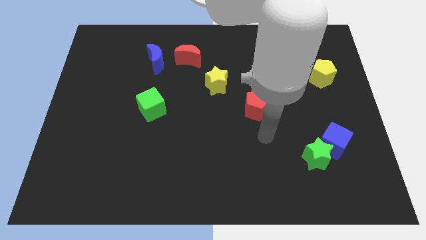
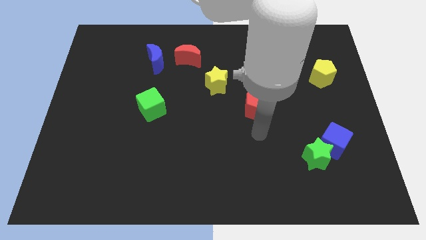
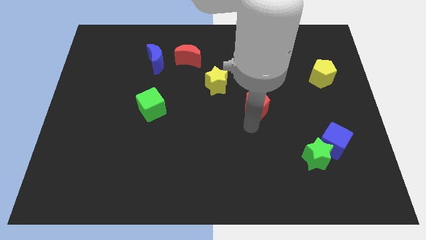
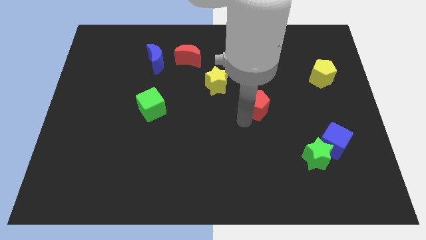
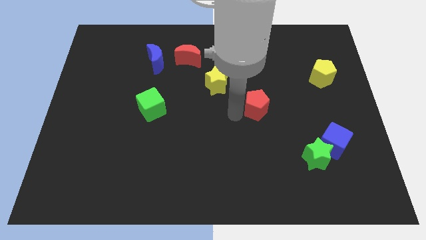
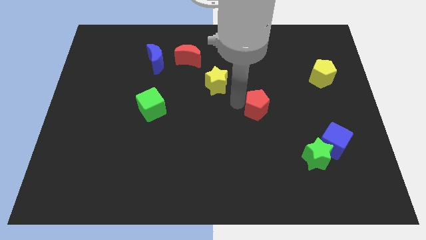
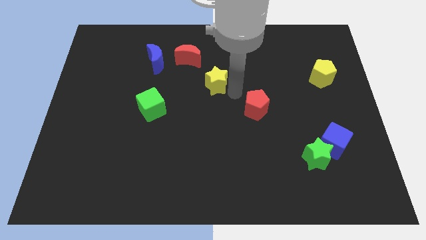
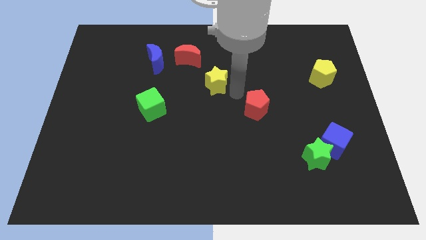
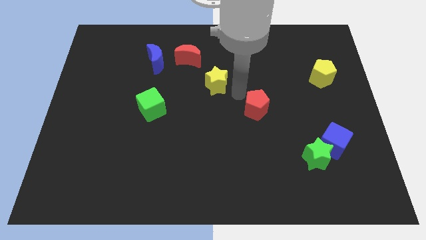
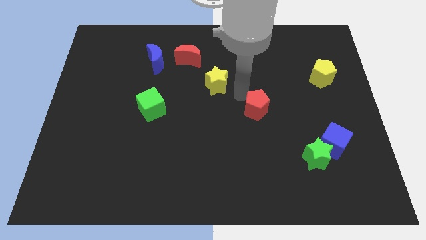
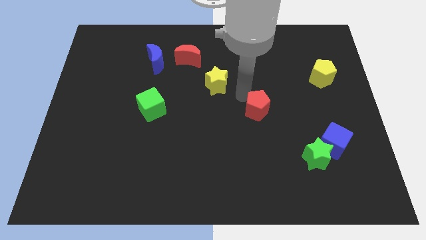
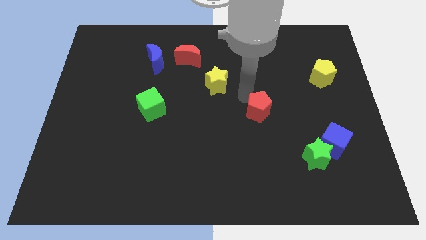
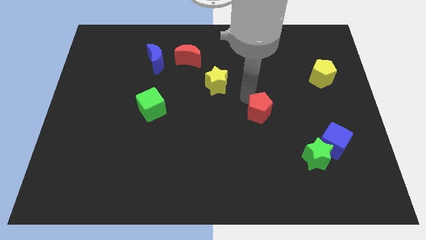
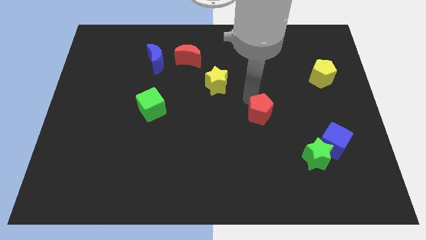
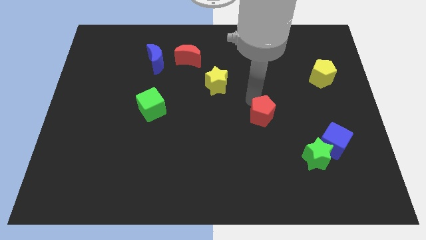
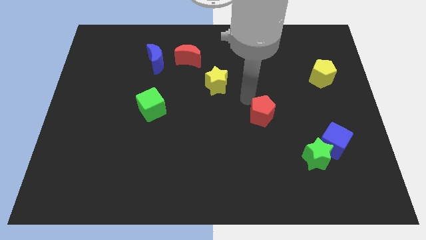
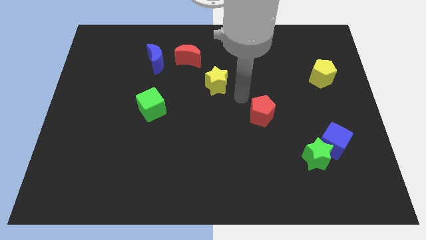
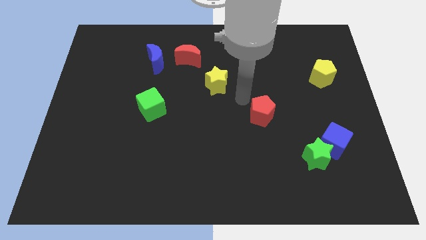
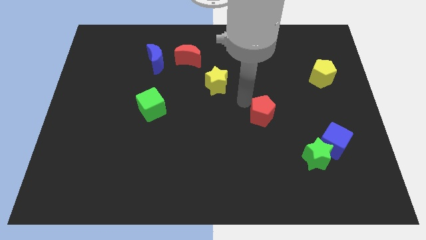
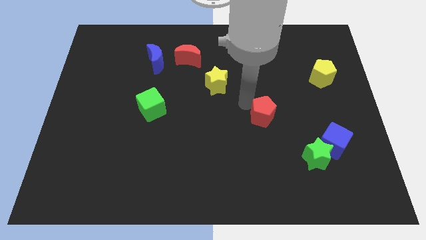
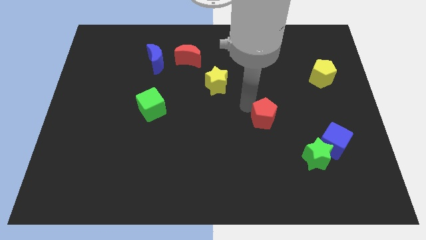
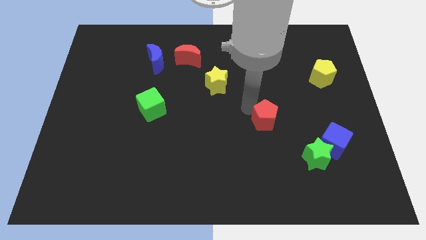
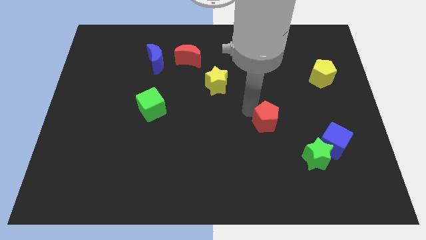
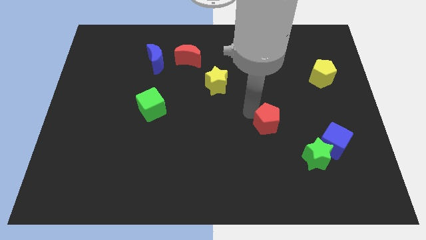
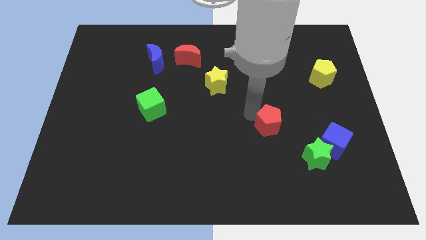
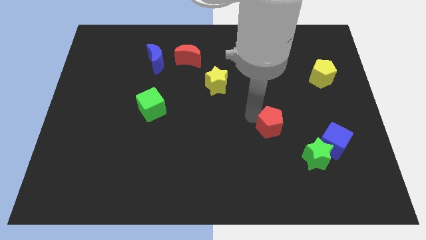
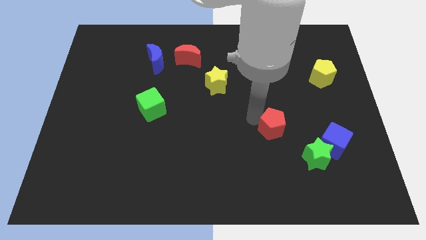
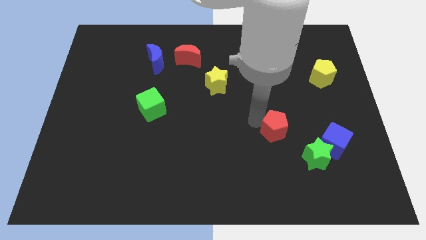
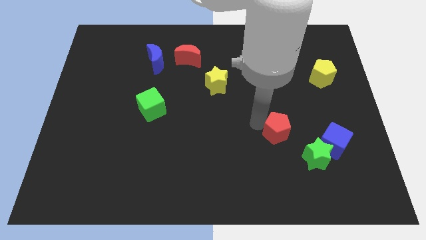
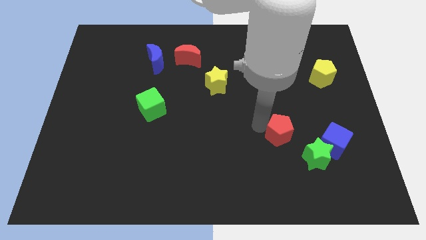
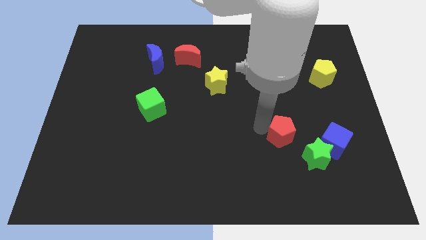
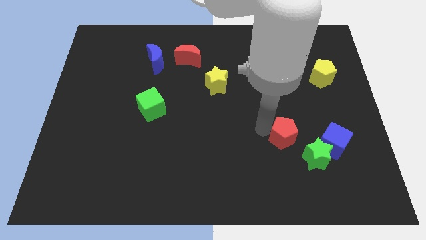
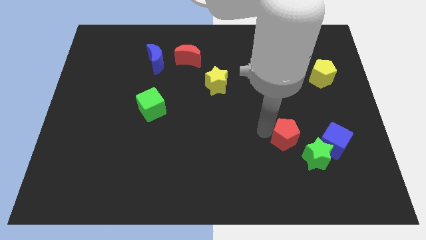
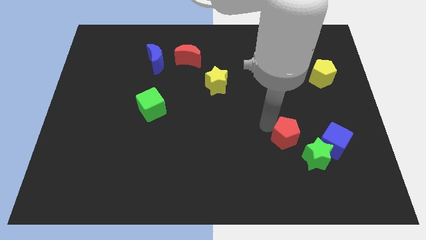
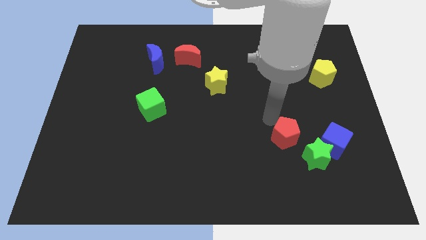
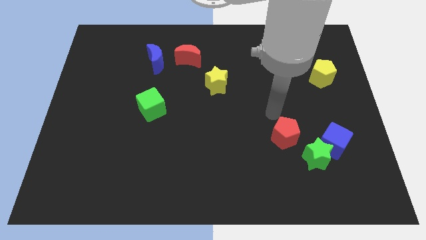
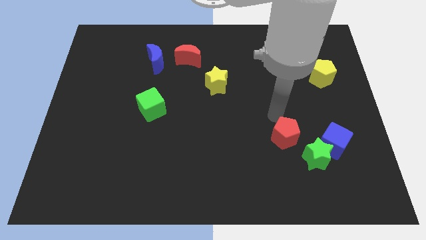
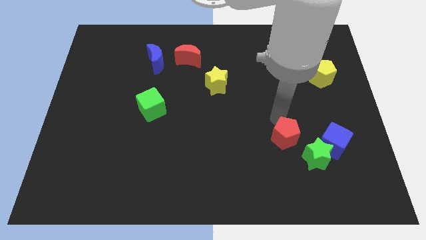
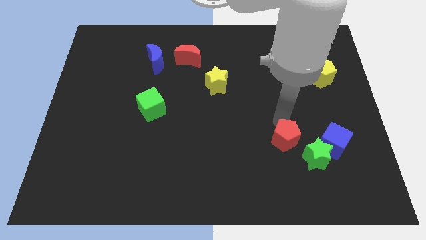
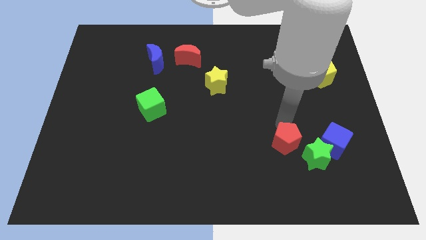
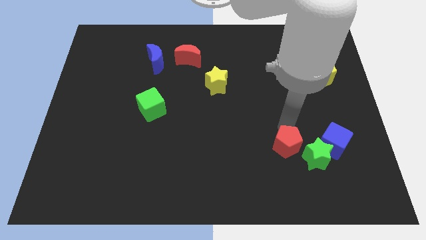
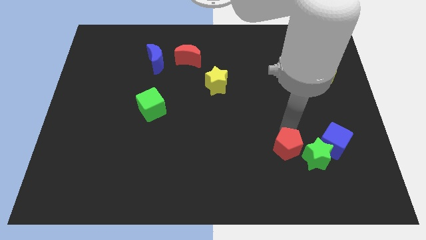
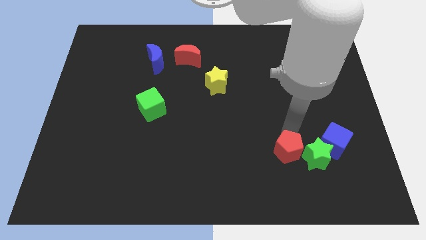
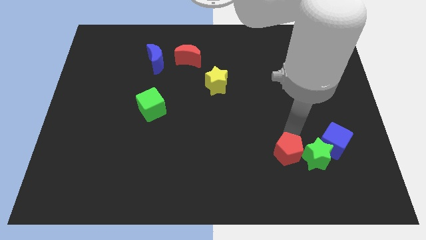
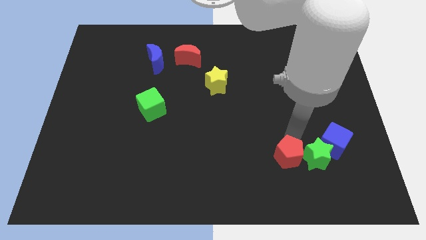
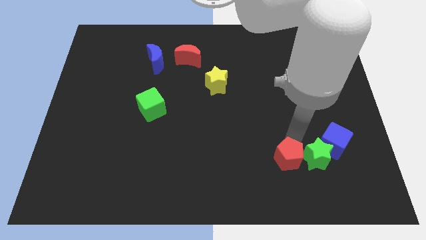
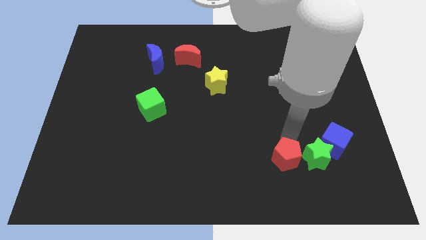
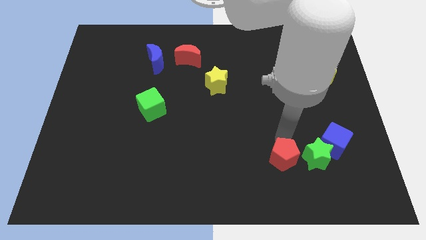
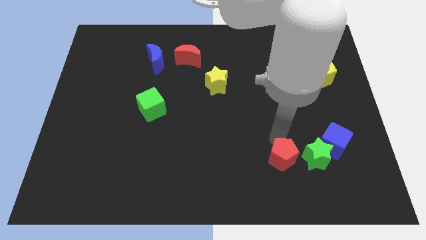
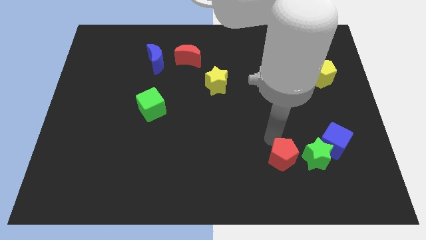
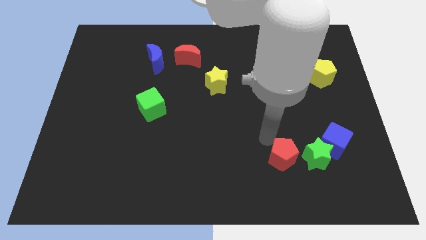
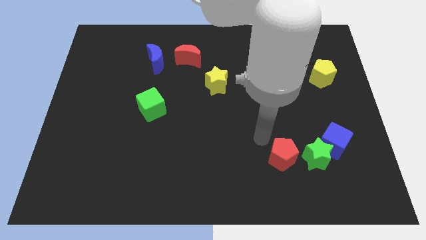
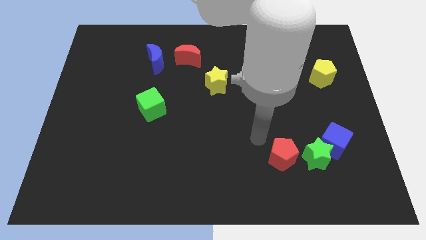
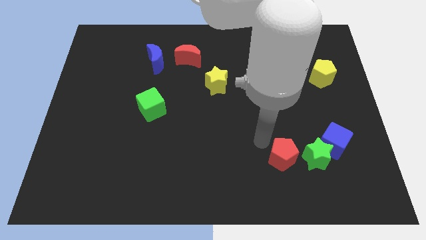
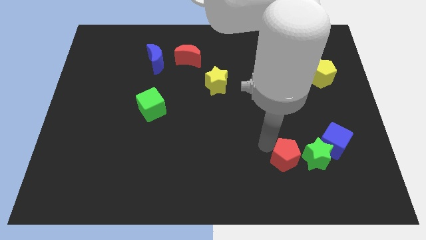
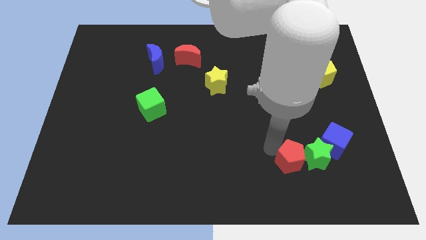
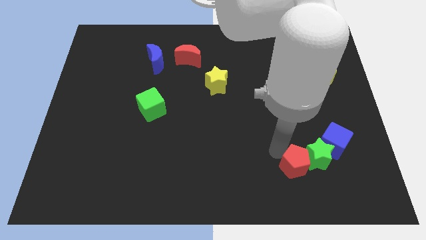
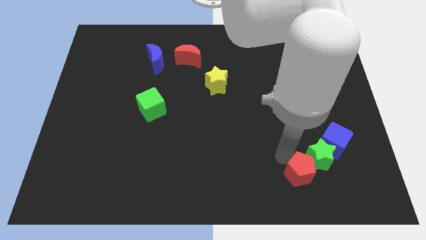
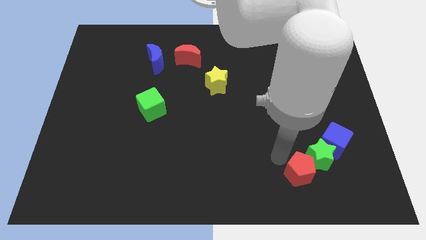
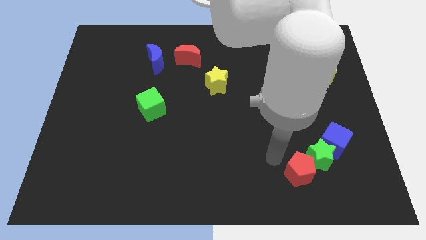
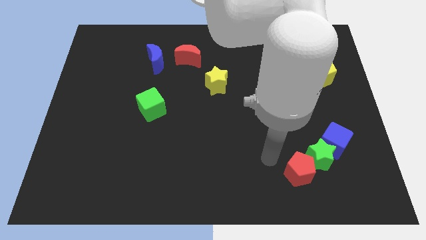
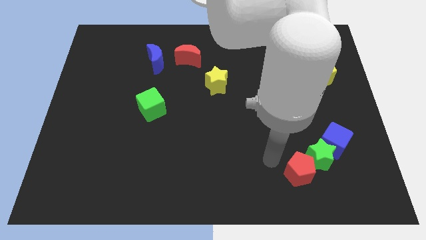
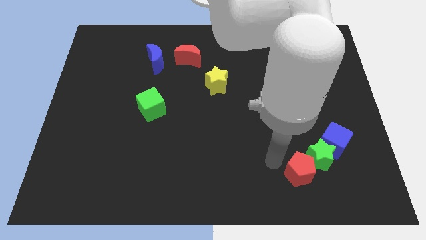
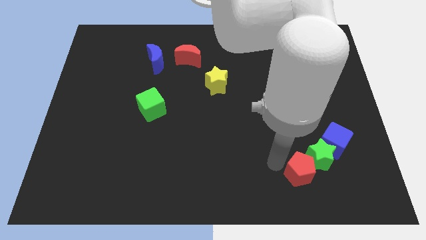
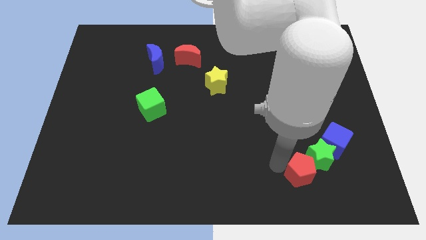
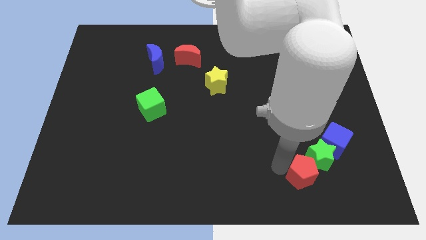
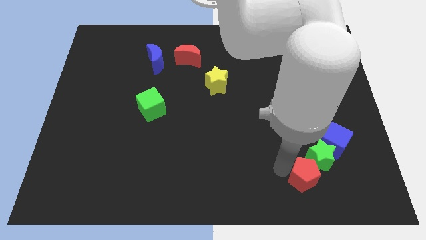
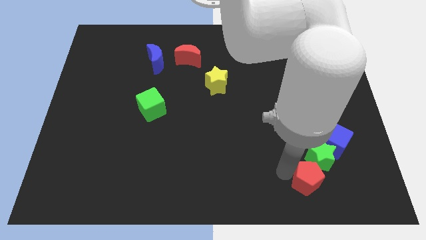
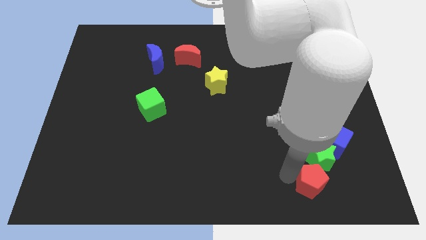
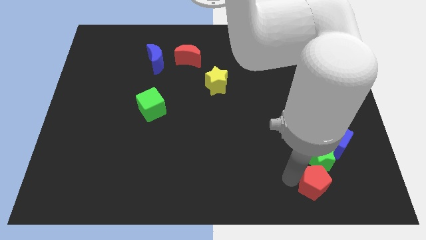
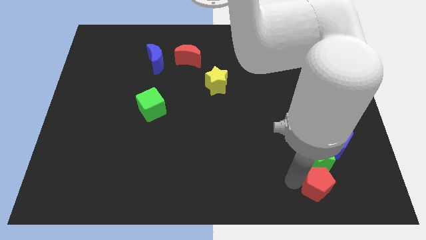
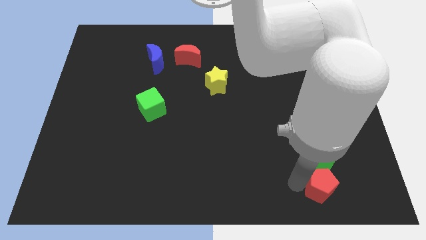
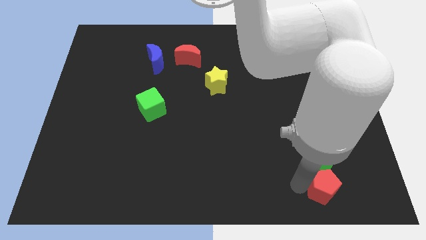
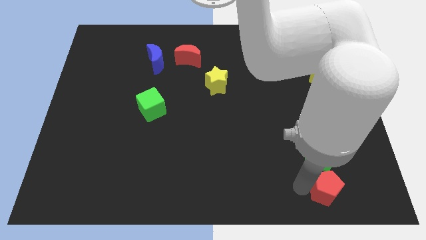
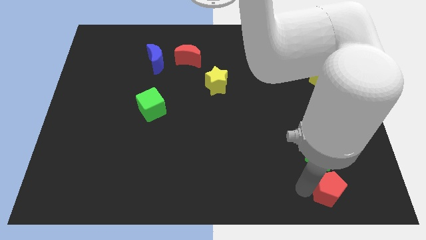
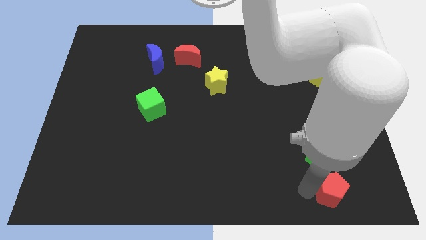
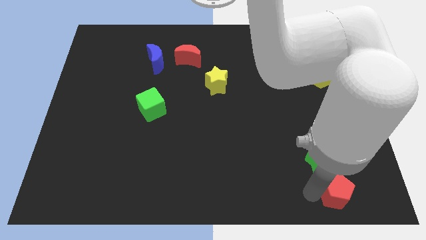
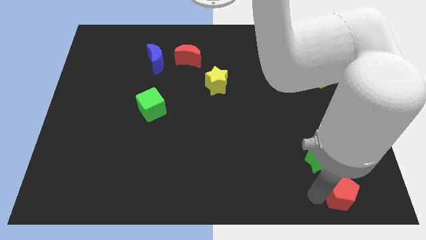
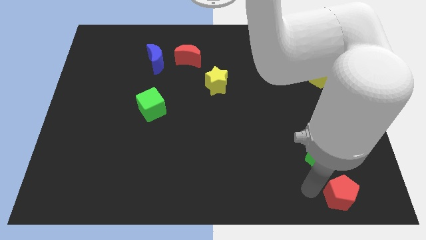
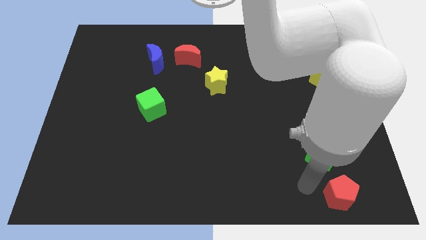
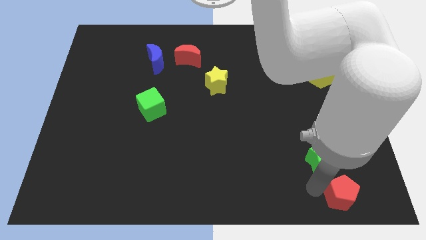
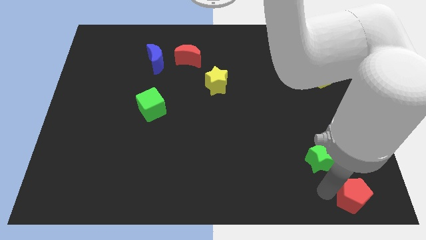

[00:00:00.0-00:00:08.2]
put the red pentagon to the bottom right of the board
